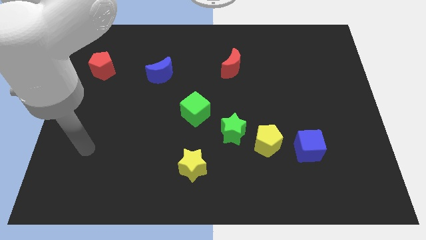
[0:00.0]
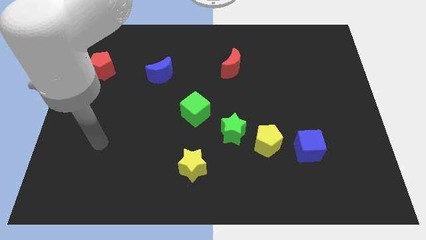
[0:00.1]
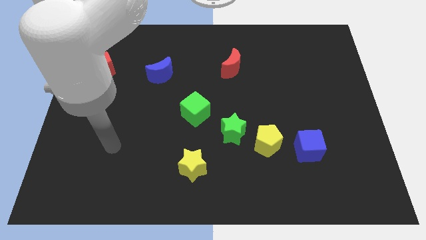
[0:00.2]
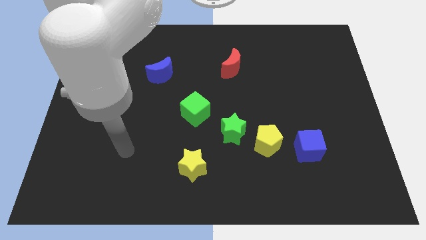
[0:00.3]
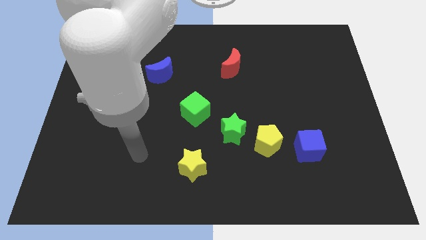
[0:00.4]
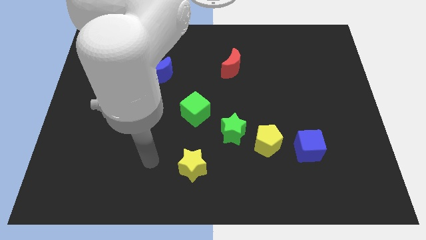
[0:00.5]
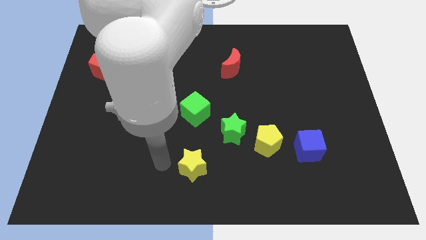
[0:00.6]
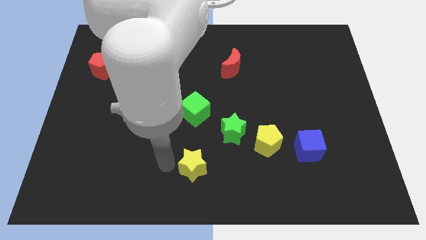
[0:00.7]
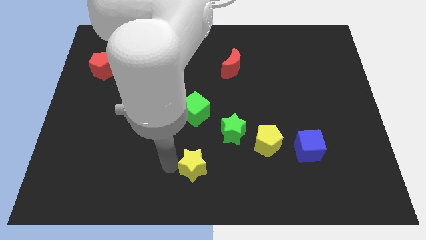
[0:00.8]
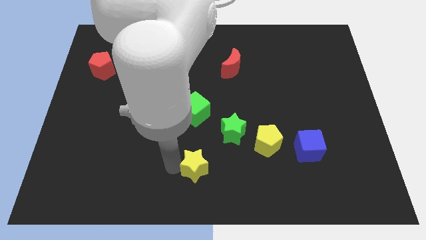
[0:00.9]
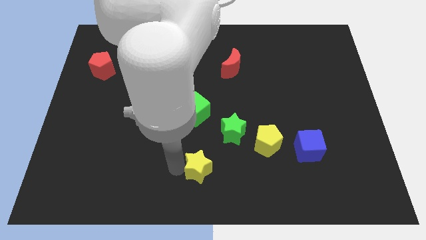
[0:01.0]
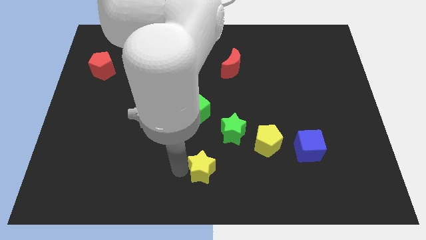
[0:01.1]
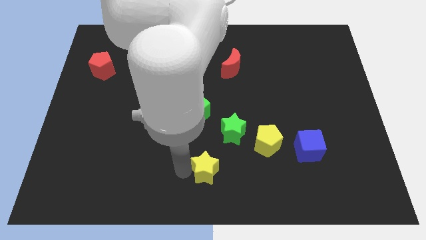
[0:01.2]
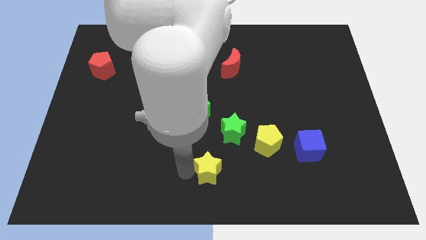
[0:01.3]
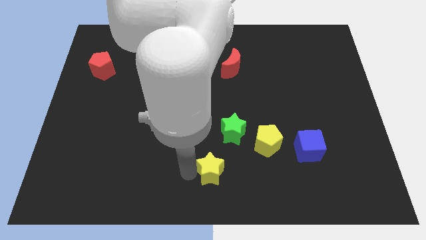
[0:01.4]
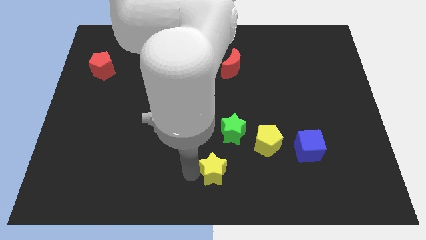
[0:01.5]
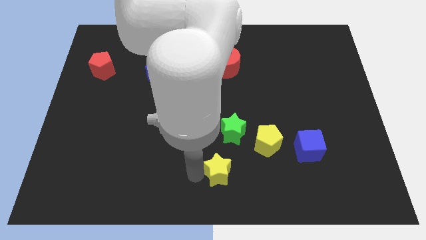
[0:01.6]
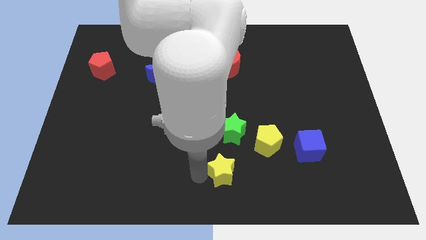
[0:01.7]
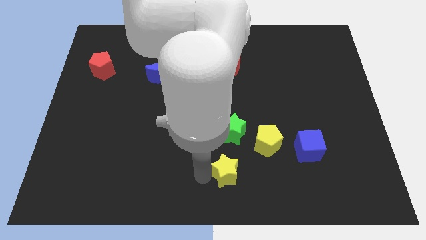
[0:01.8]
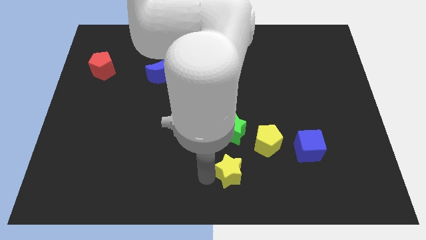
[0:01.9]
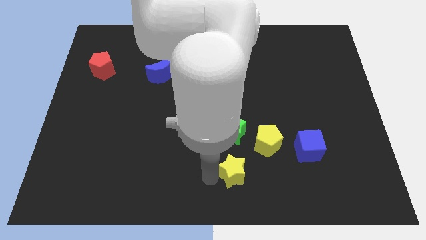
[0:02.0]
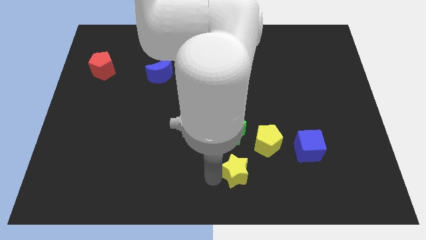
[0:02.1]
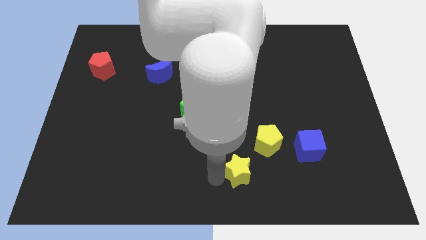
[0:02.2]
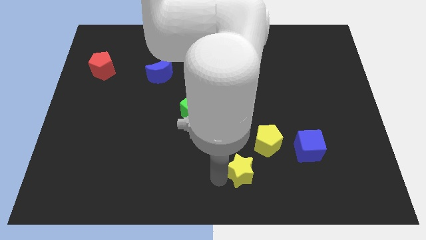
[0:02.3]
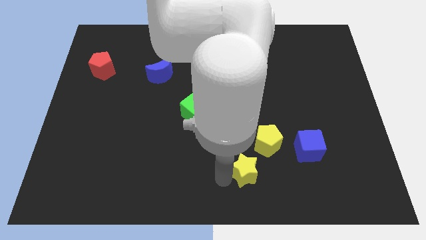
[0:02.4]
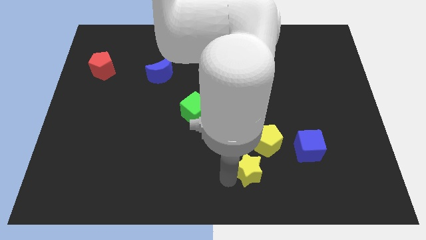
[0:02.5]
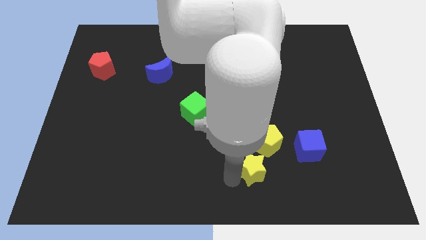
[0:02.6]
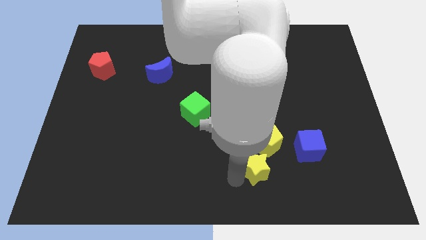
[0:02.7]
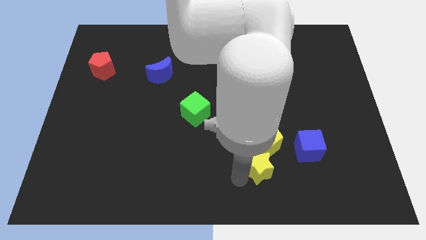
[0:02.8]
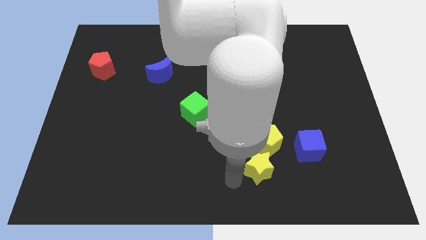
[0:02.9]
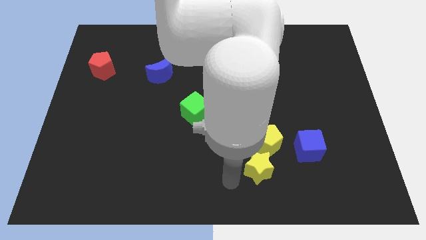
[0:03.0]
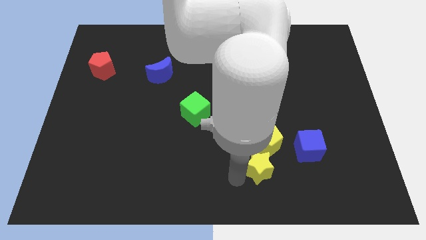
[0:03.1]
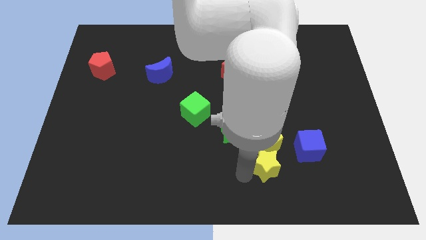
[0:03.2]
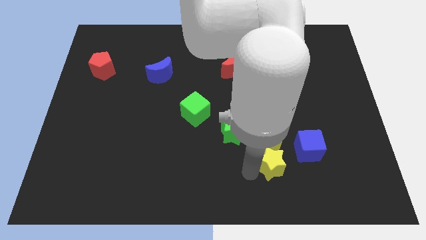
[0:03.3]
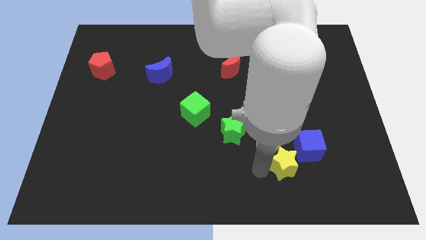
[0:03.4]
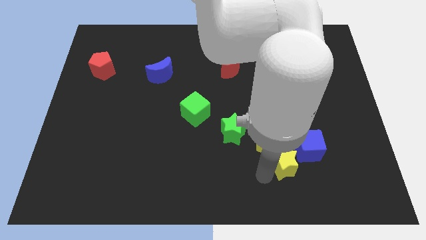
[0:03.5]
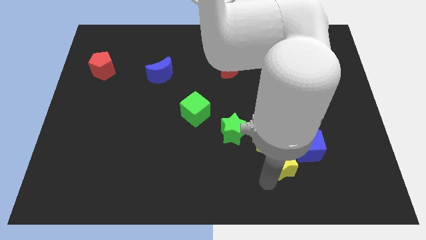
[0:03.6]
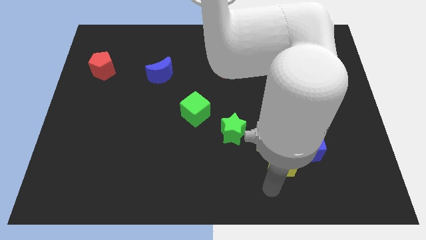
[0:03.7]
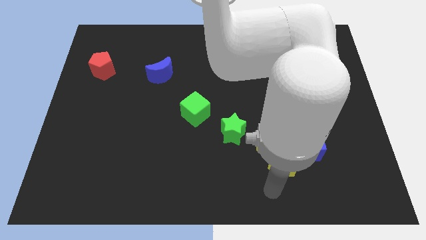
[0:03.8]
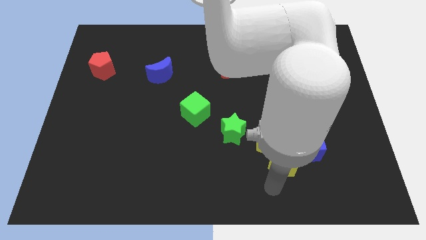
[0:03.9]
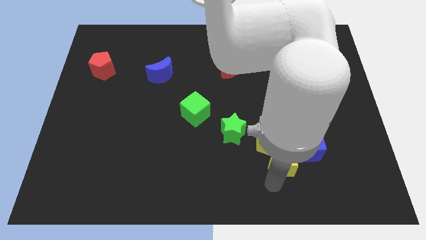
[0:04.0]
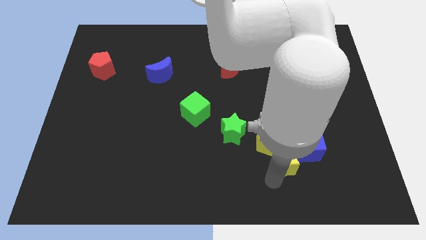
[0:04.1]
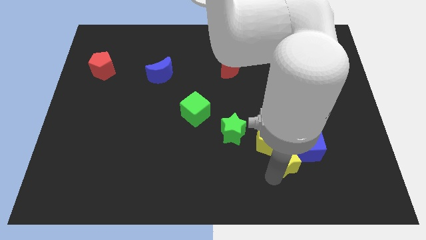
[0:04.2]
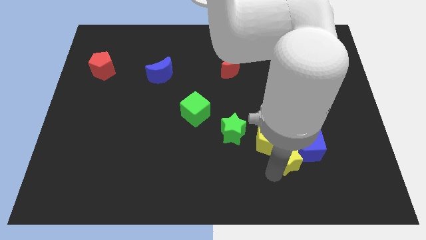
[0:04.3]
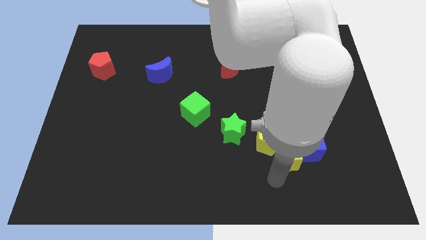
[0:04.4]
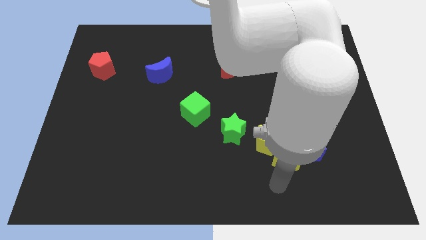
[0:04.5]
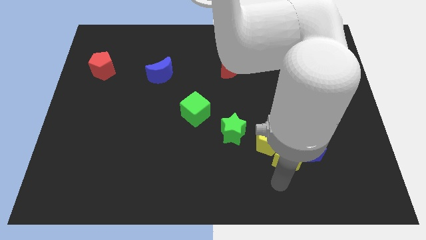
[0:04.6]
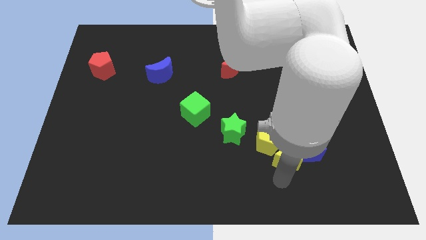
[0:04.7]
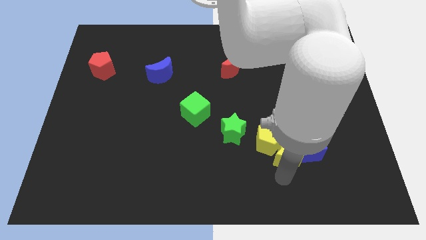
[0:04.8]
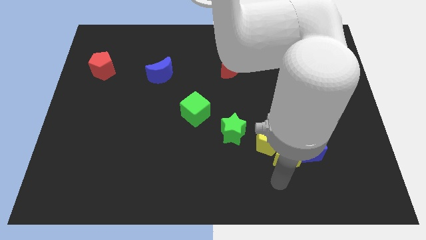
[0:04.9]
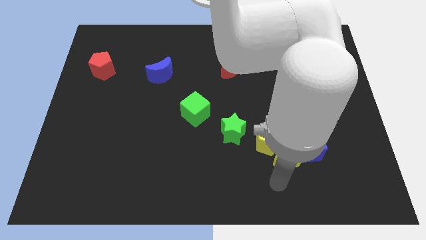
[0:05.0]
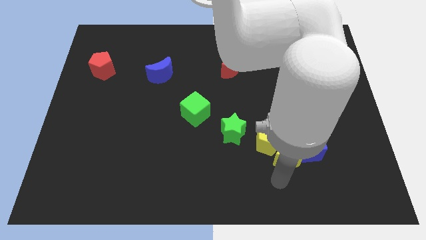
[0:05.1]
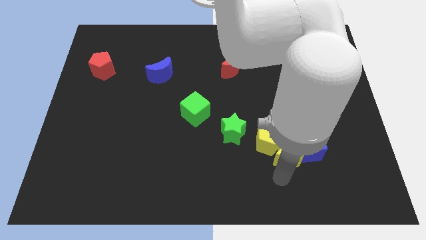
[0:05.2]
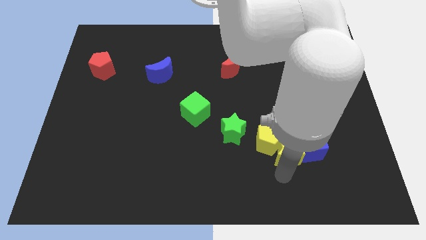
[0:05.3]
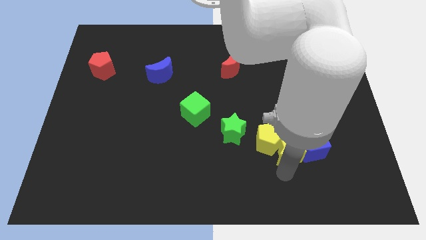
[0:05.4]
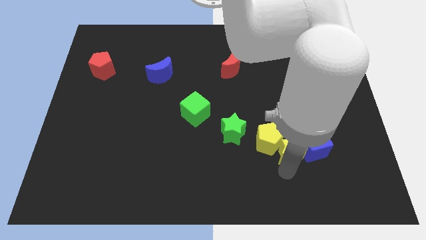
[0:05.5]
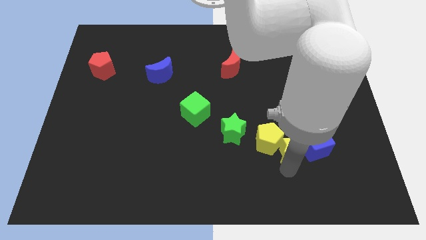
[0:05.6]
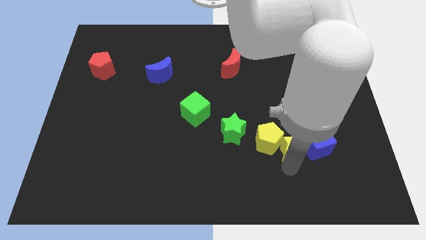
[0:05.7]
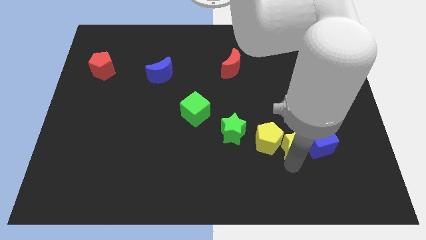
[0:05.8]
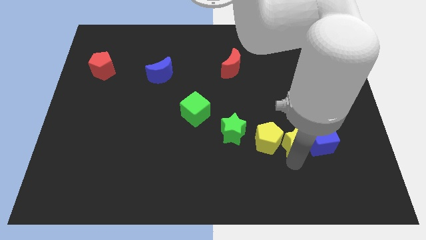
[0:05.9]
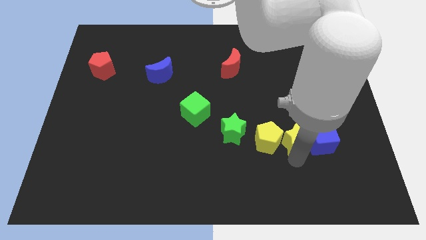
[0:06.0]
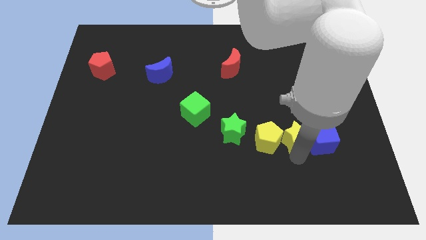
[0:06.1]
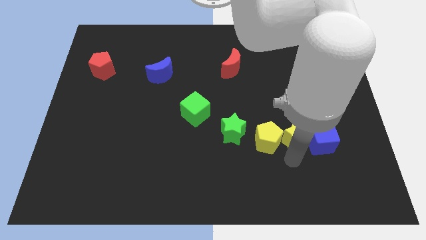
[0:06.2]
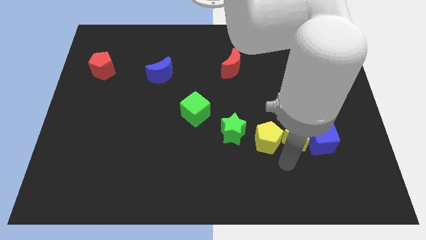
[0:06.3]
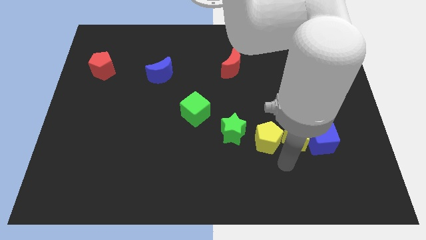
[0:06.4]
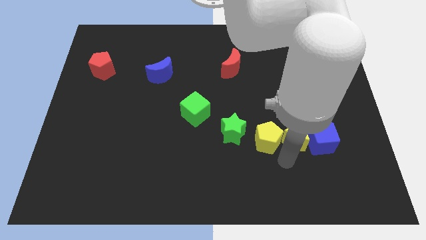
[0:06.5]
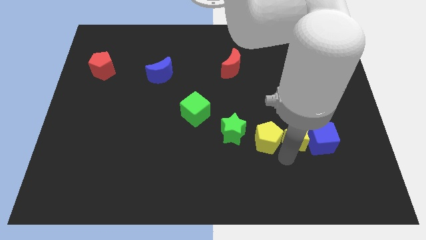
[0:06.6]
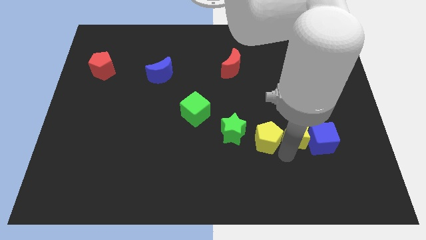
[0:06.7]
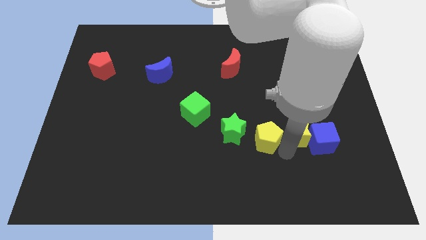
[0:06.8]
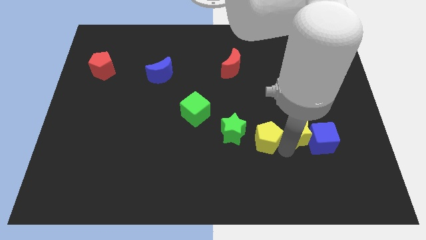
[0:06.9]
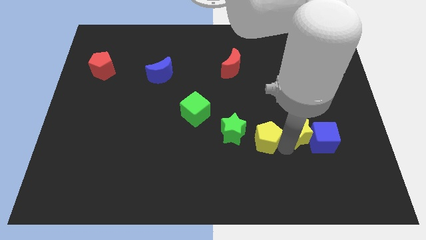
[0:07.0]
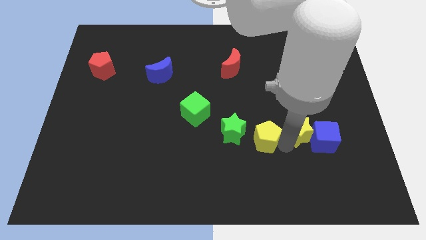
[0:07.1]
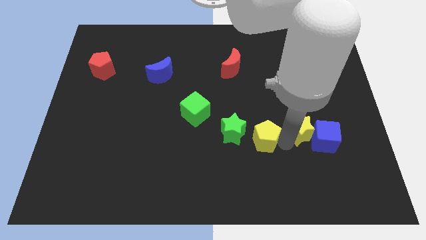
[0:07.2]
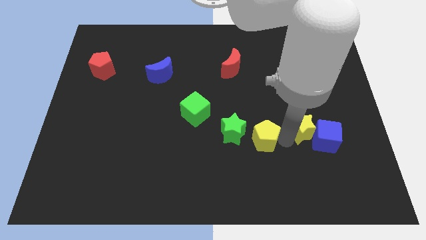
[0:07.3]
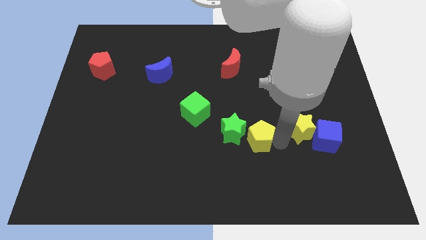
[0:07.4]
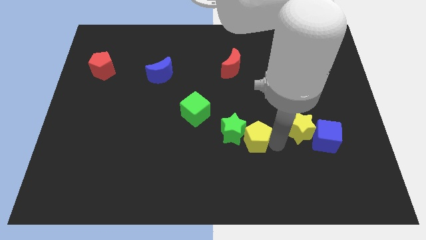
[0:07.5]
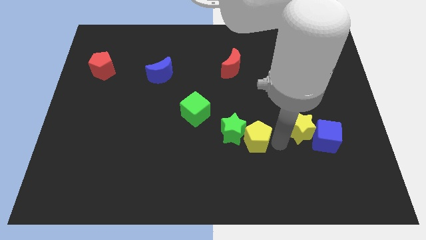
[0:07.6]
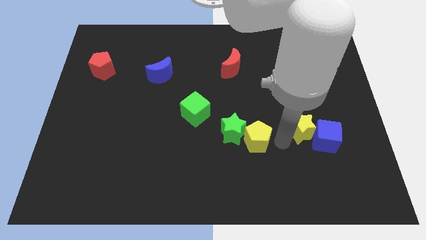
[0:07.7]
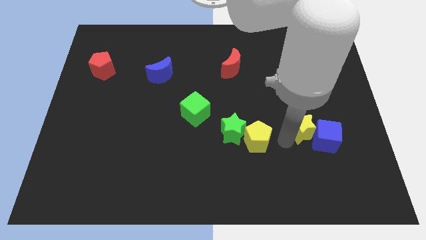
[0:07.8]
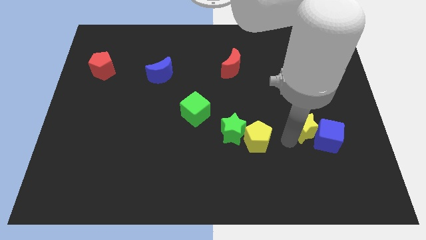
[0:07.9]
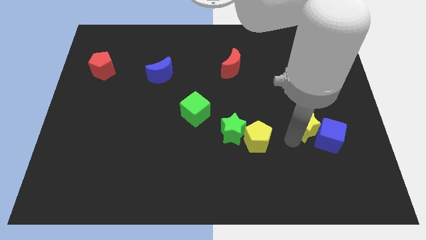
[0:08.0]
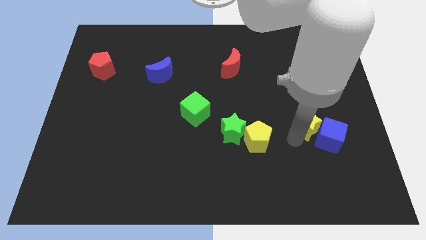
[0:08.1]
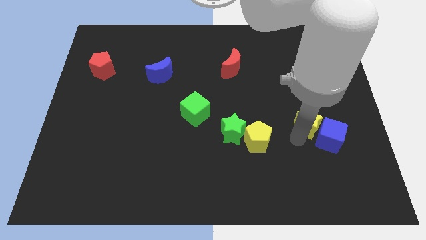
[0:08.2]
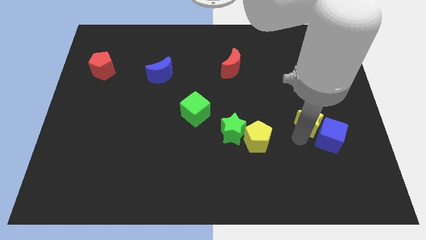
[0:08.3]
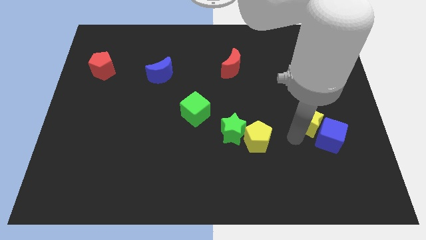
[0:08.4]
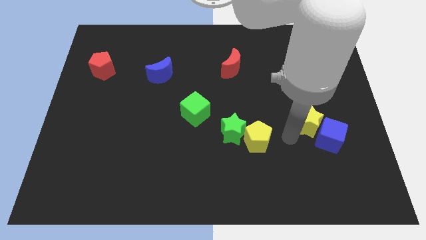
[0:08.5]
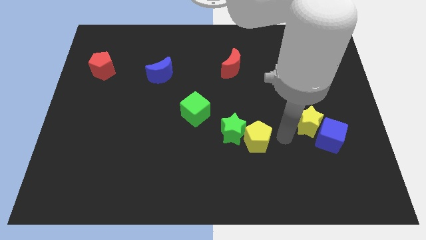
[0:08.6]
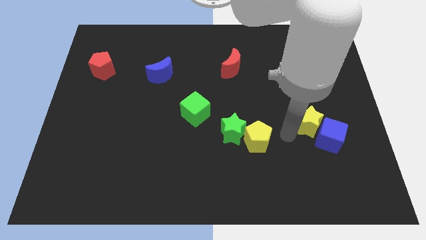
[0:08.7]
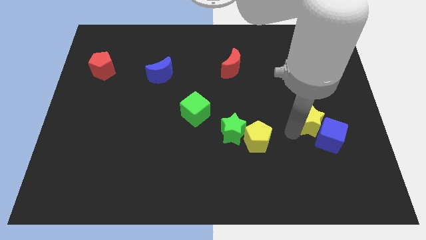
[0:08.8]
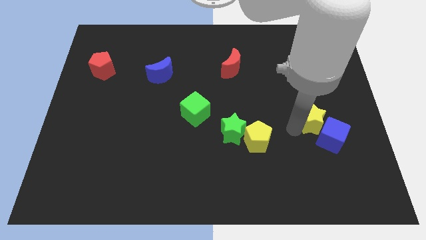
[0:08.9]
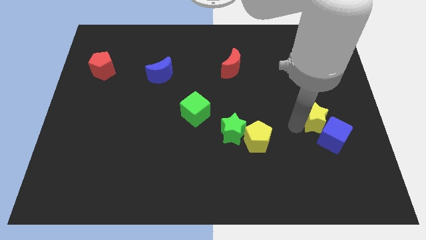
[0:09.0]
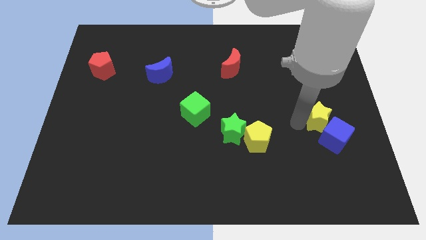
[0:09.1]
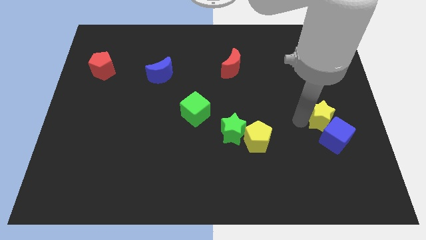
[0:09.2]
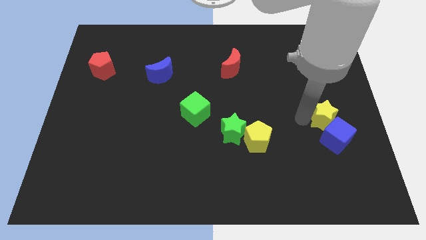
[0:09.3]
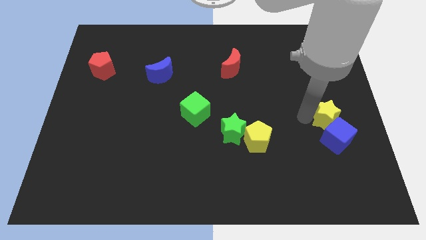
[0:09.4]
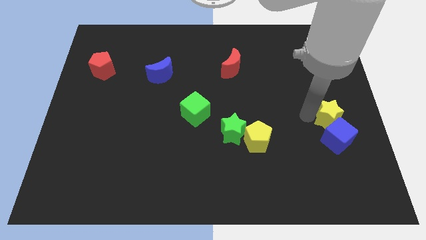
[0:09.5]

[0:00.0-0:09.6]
slide the yellow star to the right side of the board
